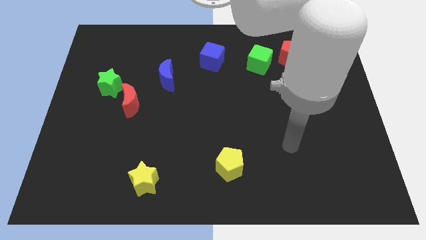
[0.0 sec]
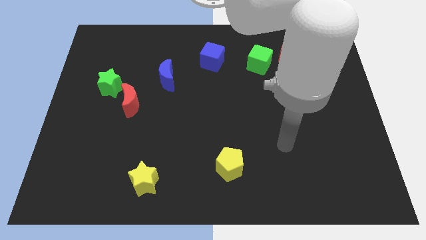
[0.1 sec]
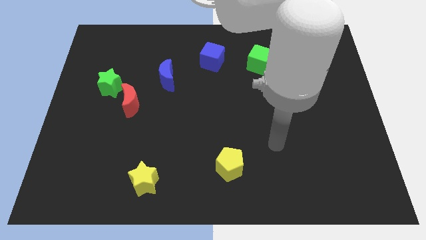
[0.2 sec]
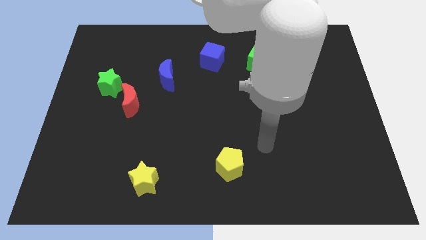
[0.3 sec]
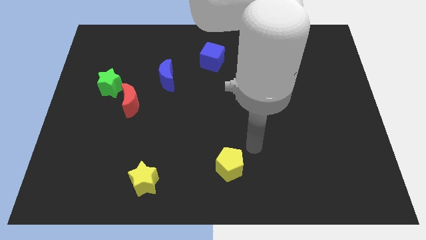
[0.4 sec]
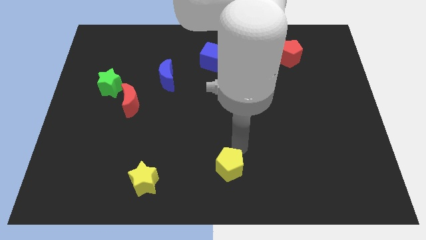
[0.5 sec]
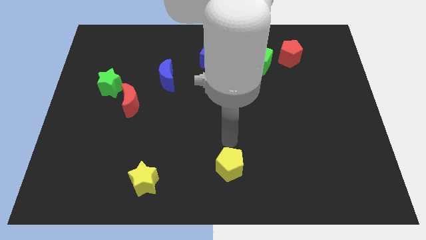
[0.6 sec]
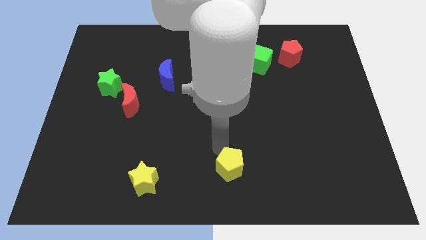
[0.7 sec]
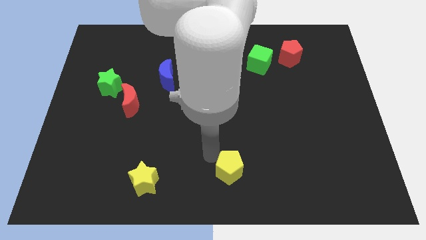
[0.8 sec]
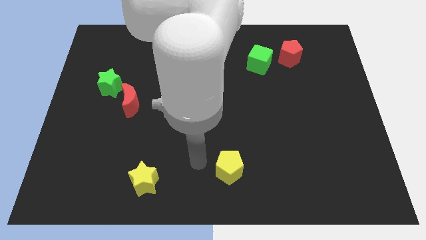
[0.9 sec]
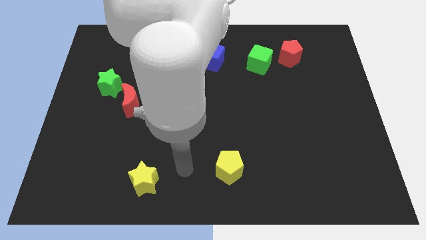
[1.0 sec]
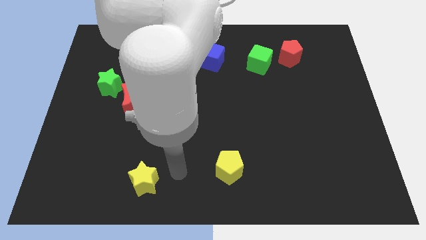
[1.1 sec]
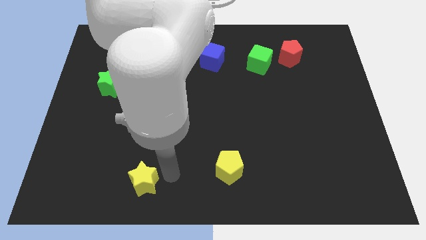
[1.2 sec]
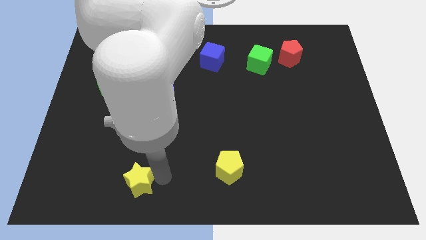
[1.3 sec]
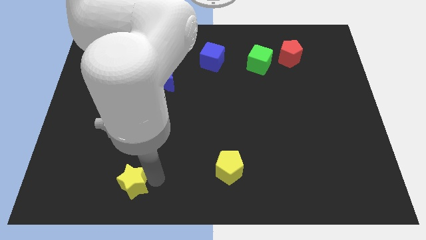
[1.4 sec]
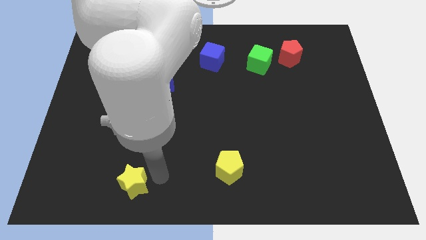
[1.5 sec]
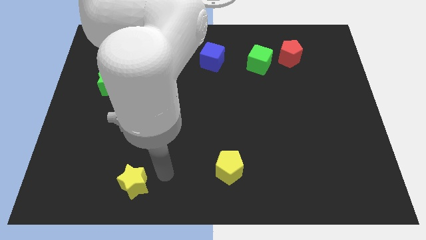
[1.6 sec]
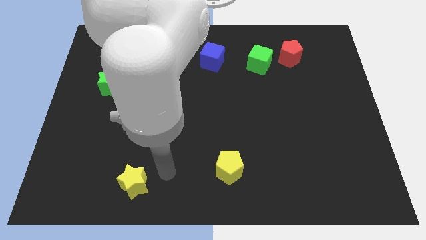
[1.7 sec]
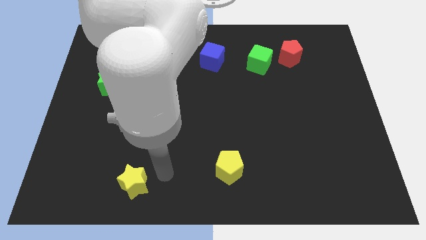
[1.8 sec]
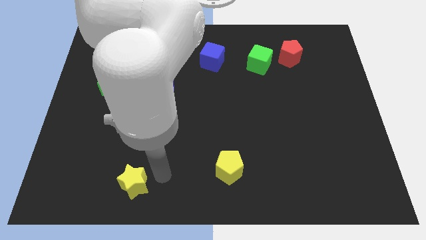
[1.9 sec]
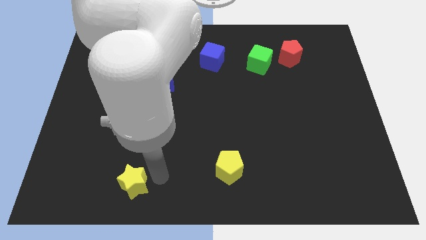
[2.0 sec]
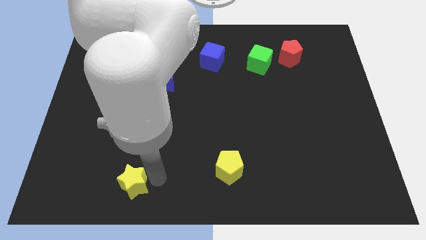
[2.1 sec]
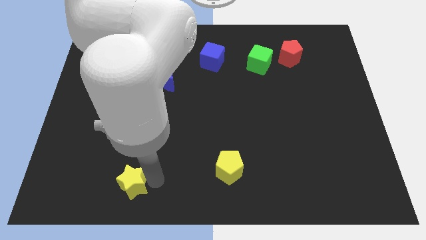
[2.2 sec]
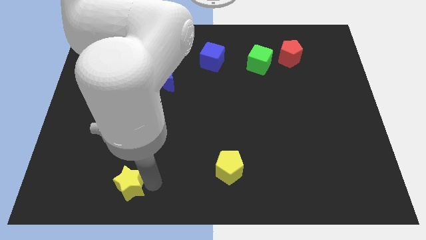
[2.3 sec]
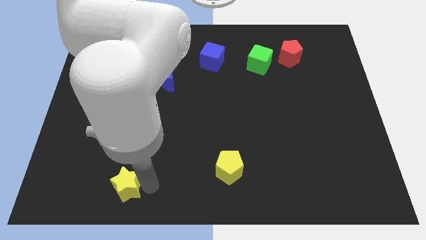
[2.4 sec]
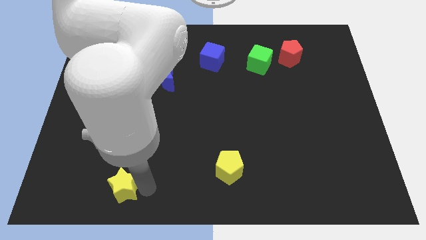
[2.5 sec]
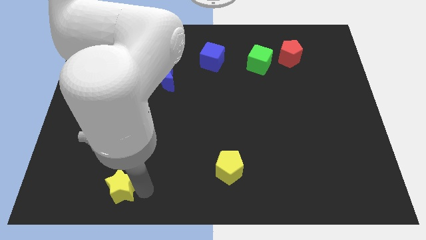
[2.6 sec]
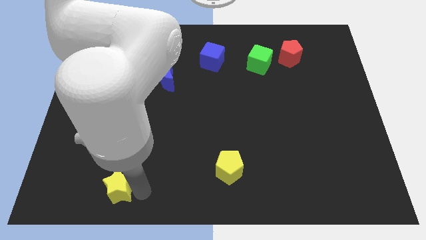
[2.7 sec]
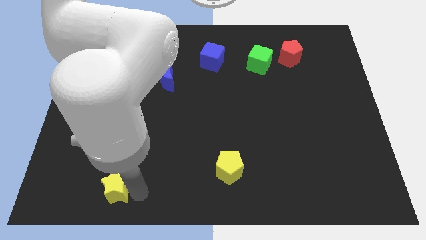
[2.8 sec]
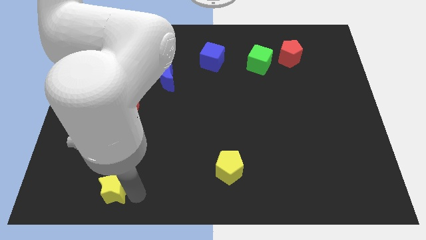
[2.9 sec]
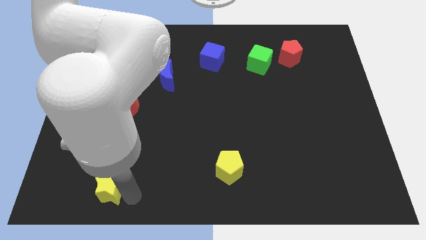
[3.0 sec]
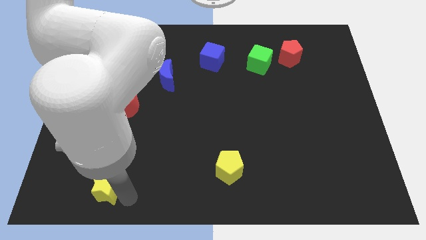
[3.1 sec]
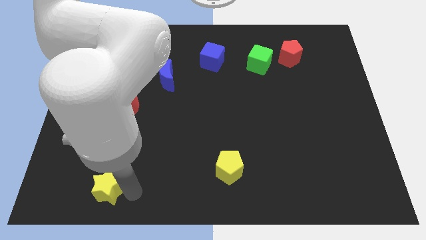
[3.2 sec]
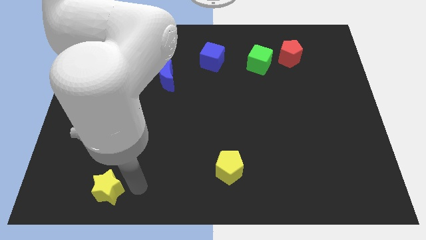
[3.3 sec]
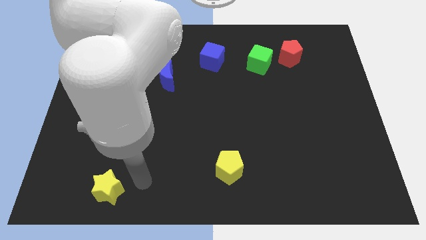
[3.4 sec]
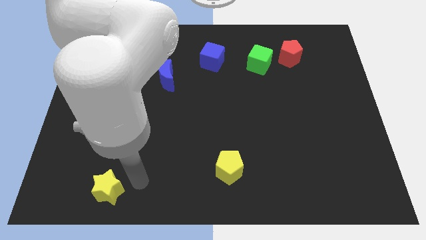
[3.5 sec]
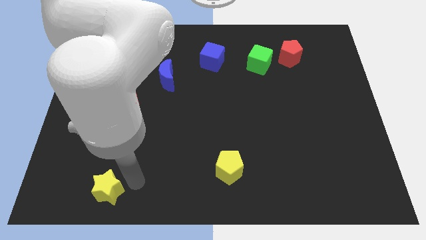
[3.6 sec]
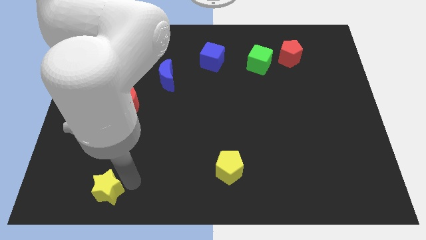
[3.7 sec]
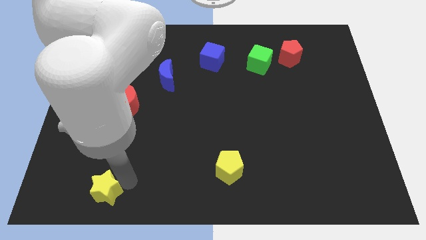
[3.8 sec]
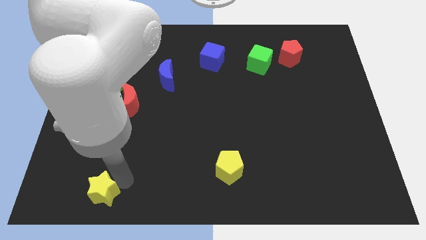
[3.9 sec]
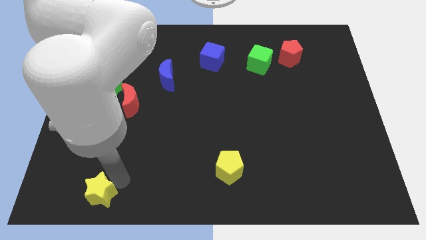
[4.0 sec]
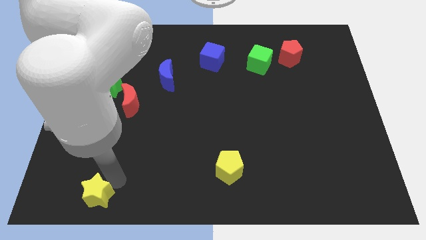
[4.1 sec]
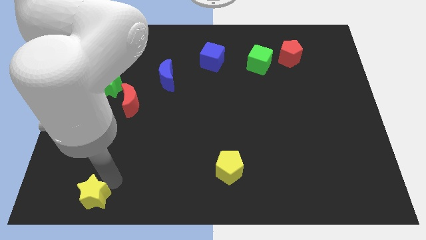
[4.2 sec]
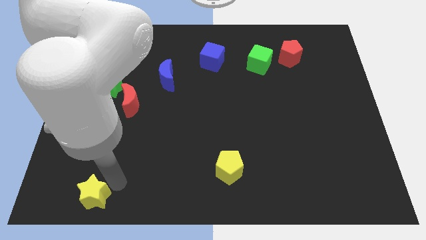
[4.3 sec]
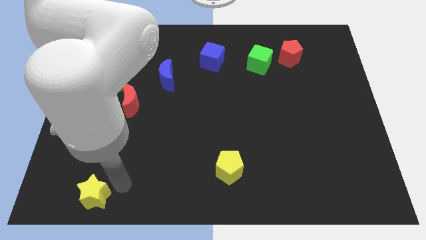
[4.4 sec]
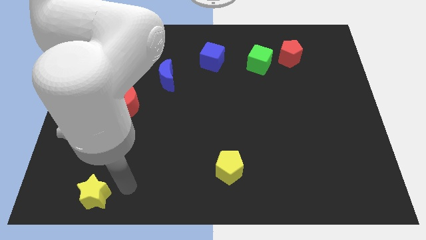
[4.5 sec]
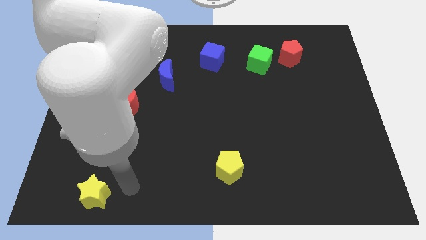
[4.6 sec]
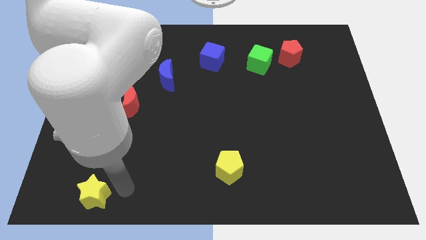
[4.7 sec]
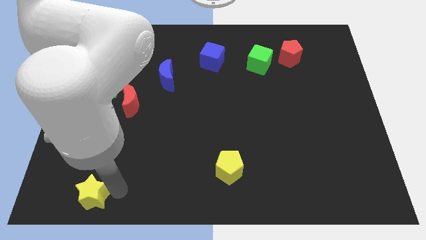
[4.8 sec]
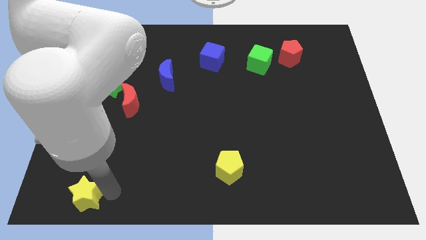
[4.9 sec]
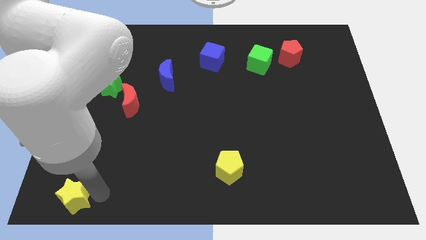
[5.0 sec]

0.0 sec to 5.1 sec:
move the yellow star to the lower left corner
